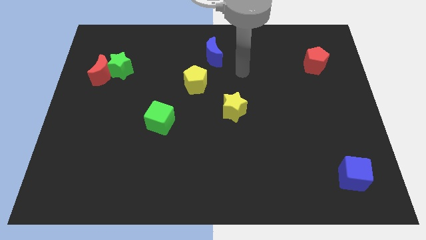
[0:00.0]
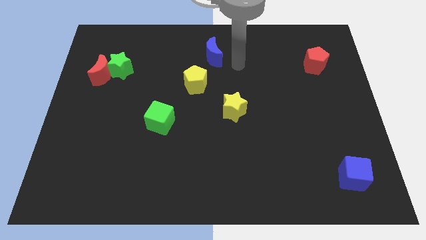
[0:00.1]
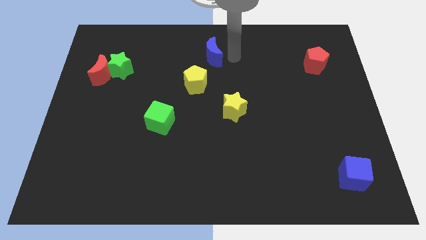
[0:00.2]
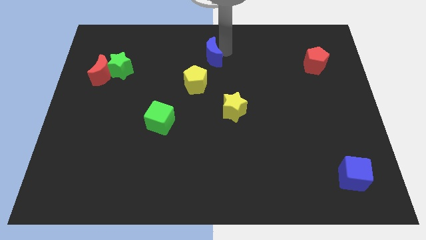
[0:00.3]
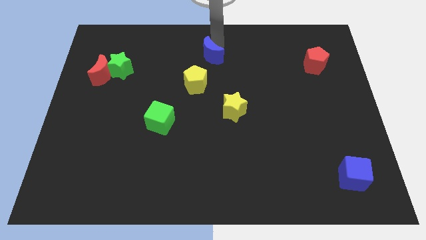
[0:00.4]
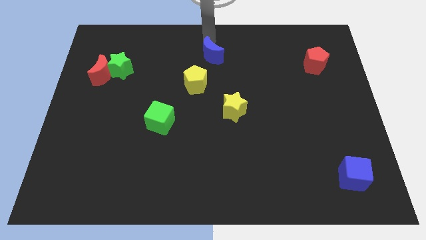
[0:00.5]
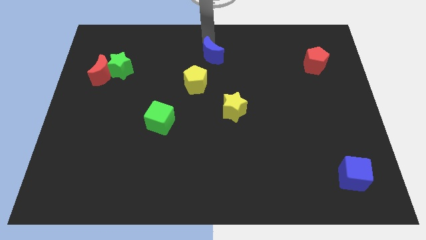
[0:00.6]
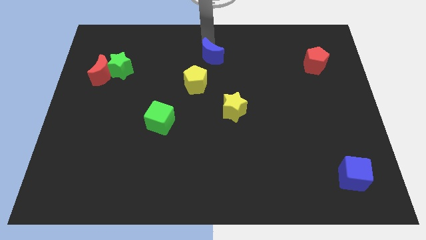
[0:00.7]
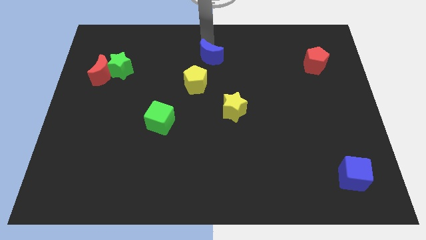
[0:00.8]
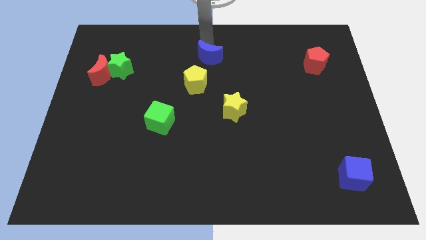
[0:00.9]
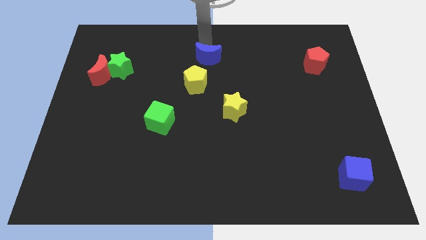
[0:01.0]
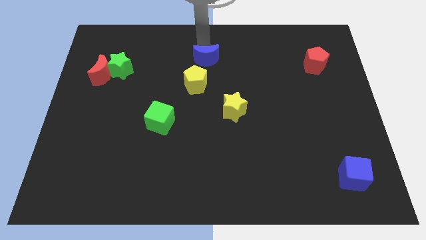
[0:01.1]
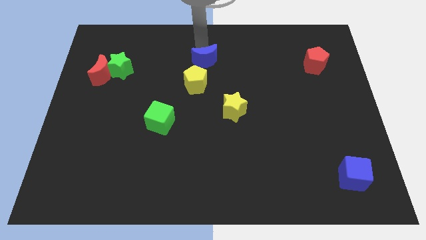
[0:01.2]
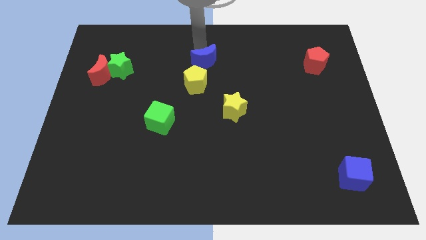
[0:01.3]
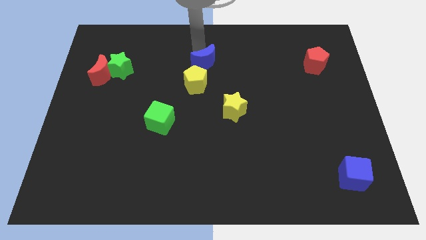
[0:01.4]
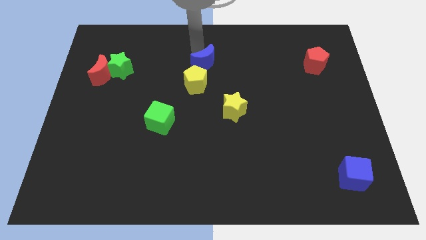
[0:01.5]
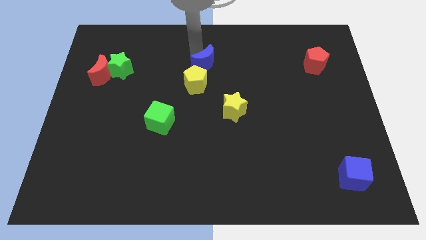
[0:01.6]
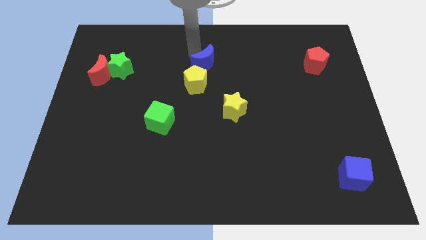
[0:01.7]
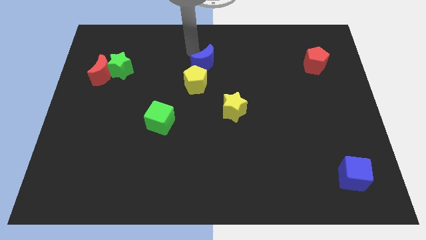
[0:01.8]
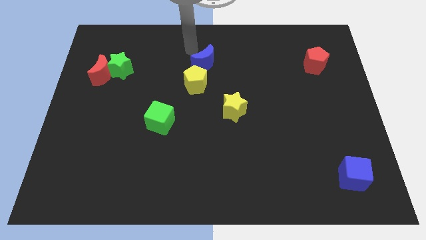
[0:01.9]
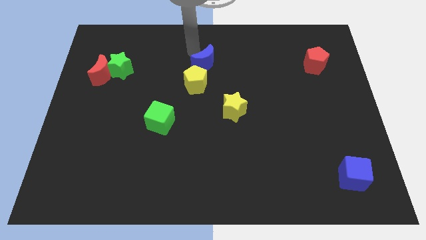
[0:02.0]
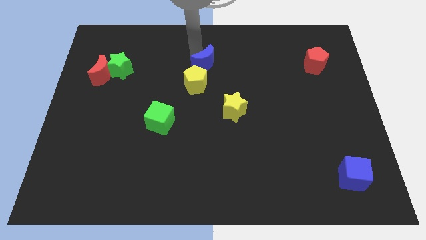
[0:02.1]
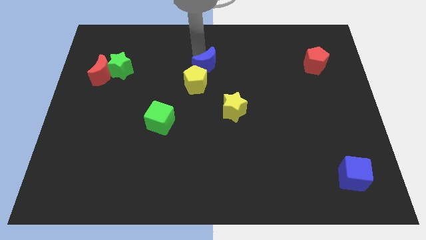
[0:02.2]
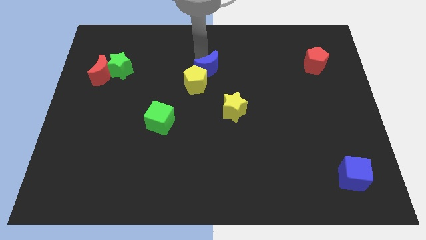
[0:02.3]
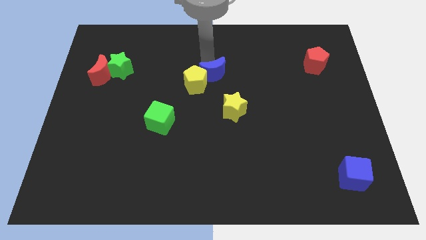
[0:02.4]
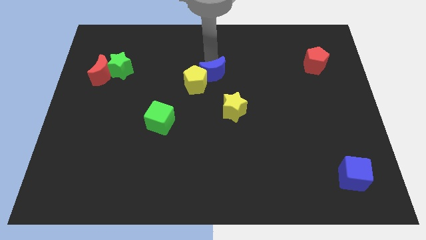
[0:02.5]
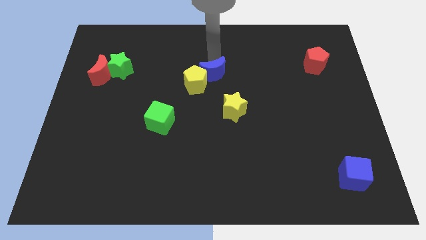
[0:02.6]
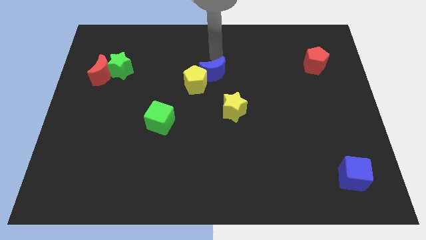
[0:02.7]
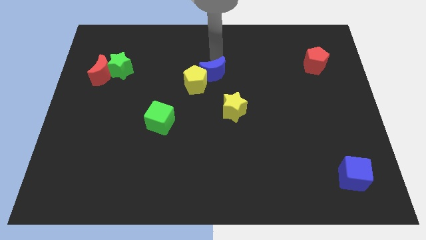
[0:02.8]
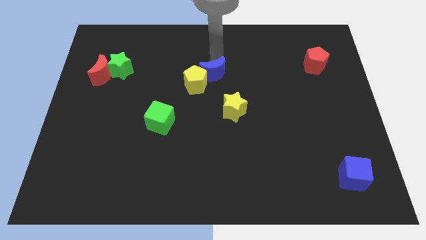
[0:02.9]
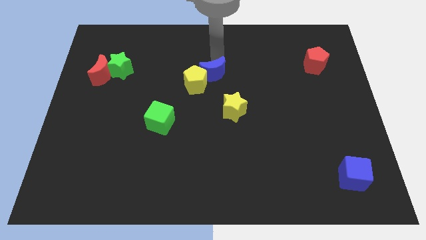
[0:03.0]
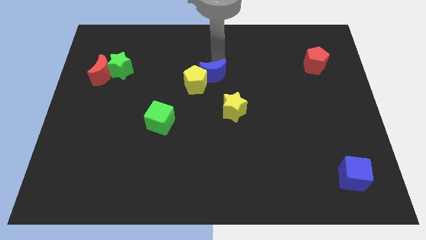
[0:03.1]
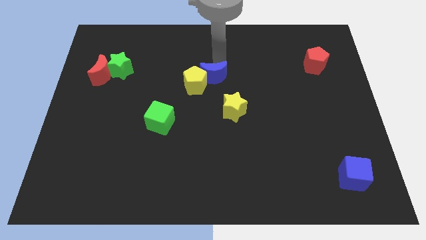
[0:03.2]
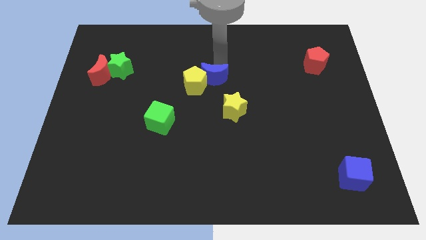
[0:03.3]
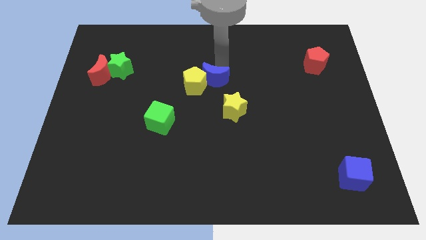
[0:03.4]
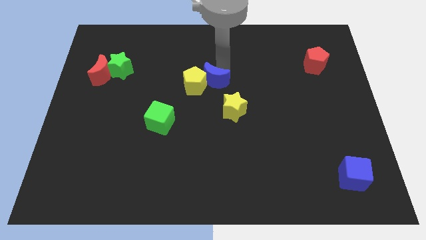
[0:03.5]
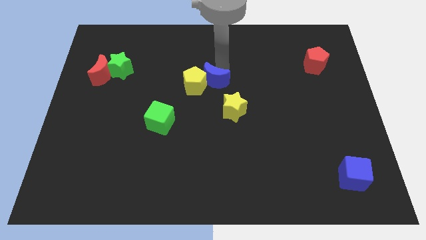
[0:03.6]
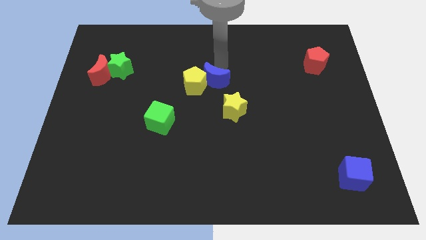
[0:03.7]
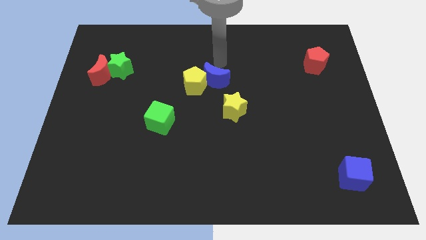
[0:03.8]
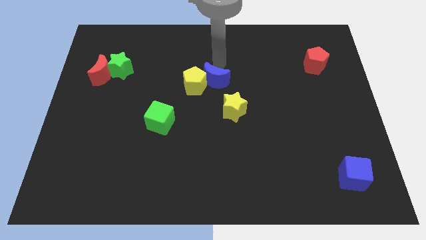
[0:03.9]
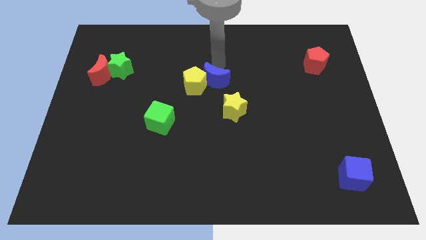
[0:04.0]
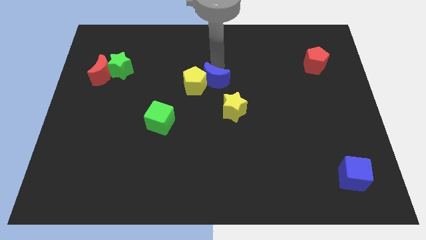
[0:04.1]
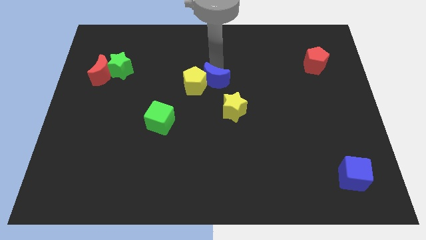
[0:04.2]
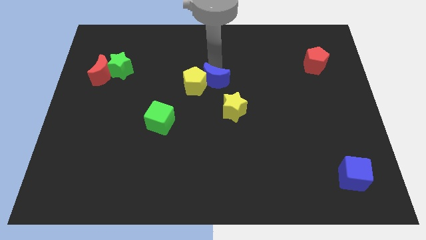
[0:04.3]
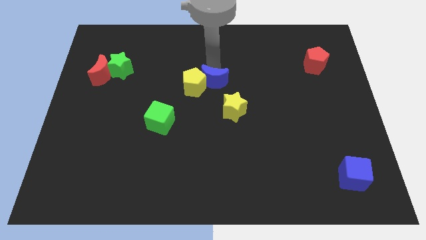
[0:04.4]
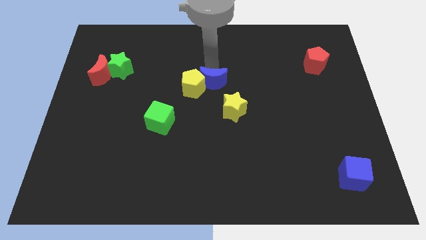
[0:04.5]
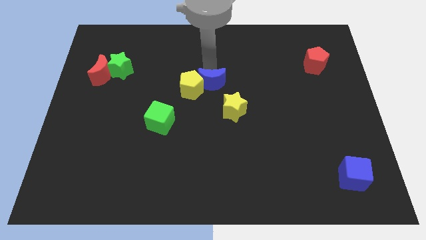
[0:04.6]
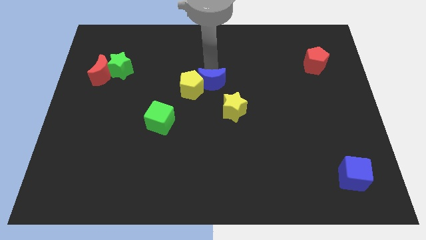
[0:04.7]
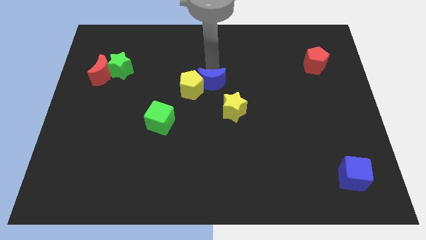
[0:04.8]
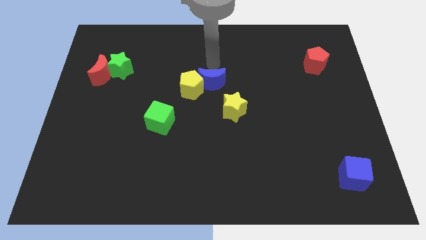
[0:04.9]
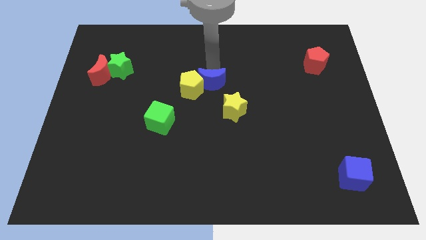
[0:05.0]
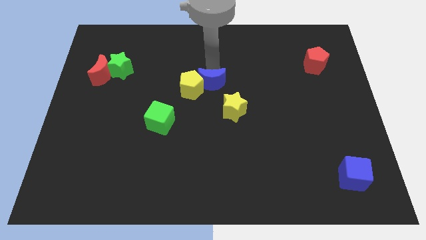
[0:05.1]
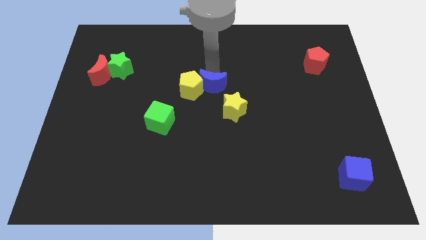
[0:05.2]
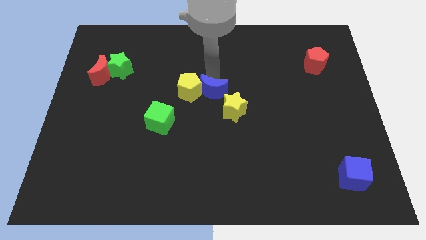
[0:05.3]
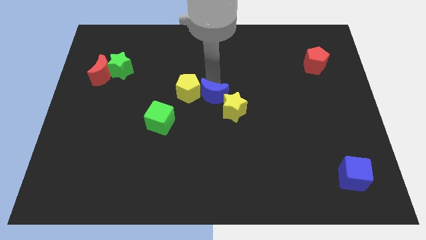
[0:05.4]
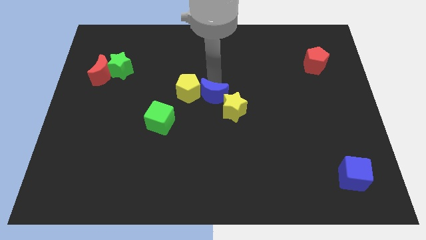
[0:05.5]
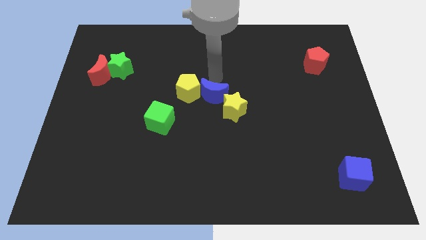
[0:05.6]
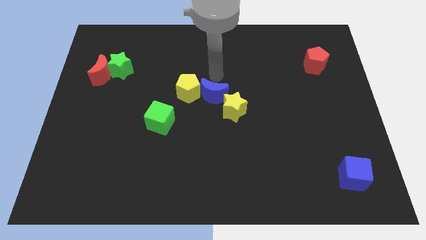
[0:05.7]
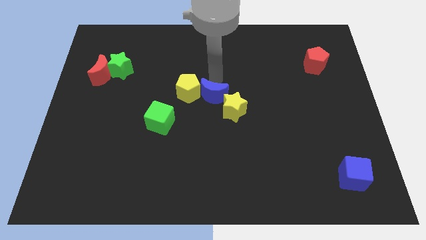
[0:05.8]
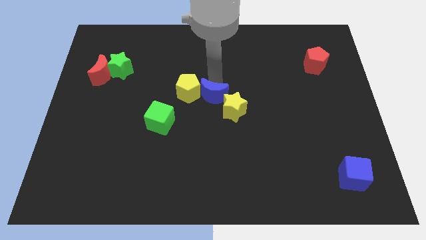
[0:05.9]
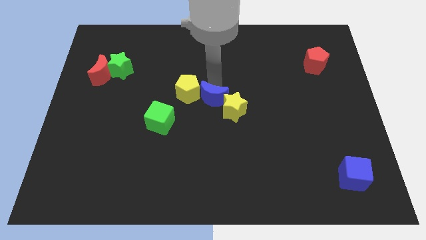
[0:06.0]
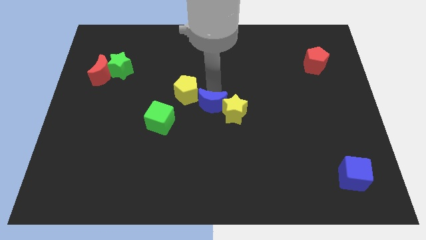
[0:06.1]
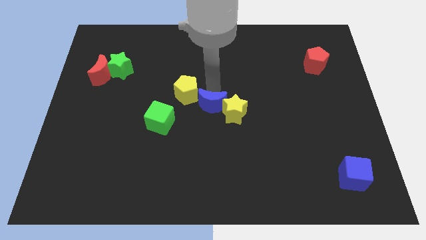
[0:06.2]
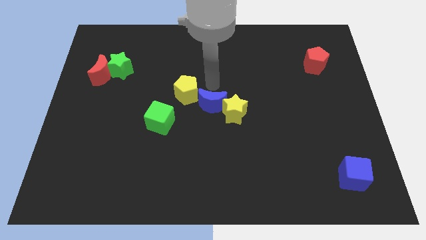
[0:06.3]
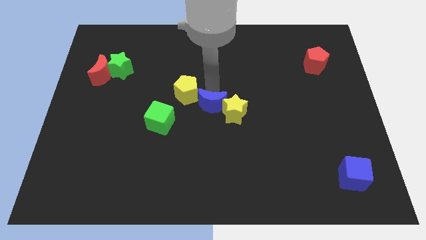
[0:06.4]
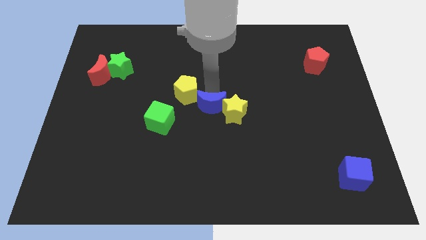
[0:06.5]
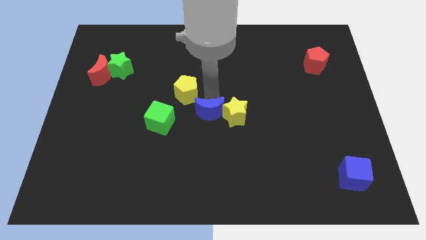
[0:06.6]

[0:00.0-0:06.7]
move the blue moon to the bottom left of the yellow star
